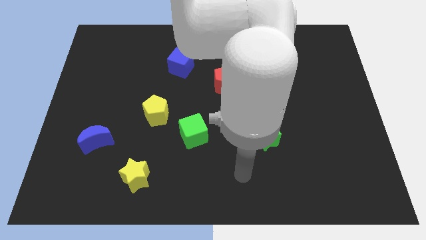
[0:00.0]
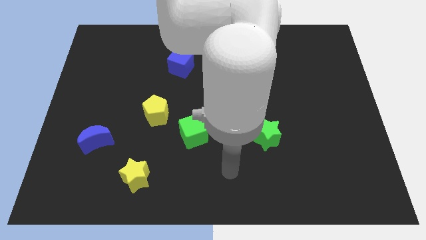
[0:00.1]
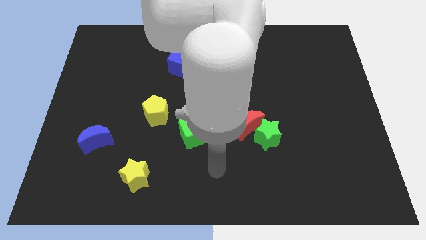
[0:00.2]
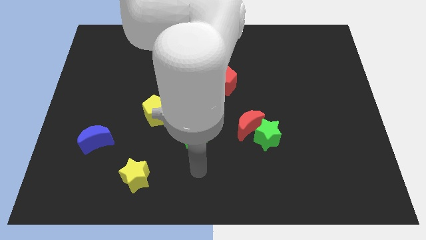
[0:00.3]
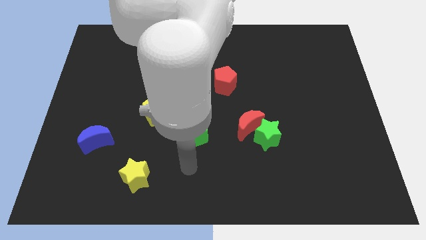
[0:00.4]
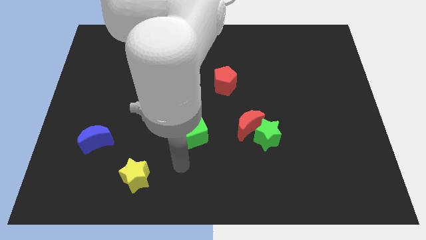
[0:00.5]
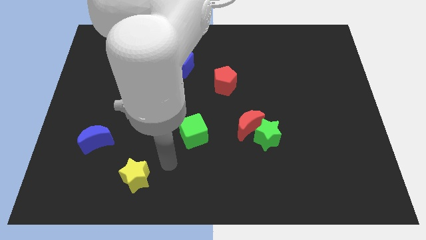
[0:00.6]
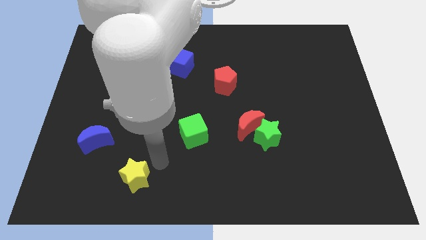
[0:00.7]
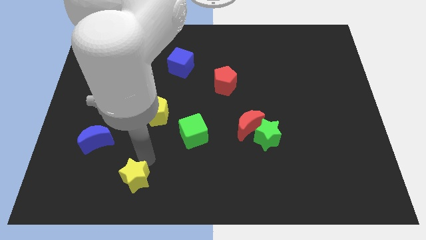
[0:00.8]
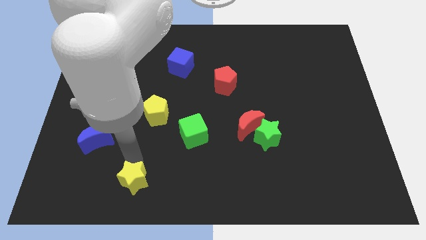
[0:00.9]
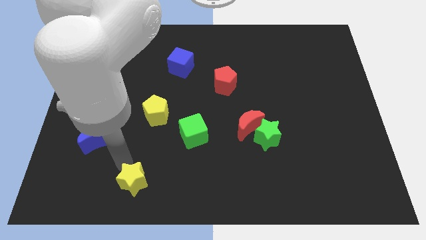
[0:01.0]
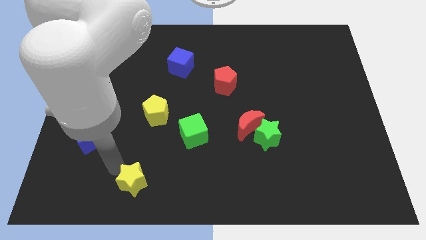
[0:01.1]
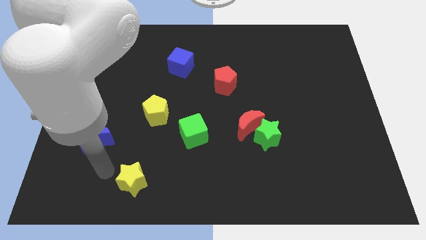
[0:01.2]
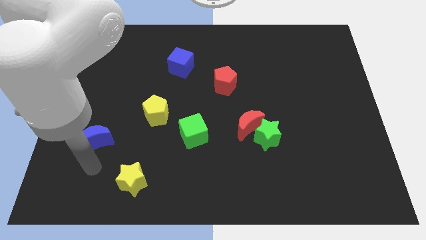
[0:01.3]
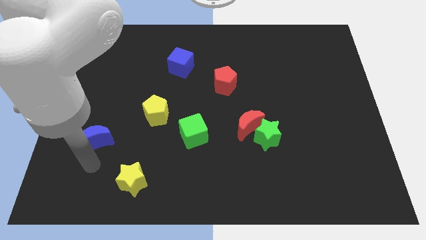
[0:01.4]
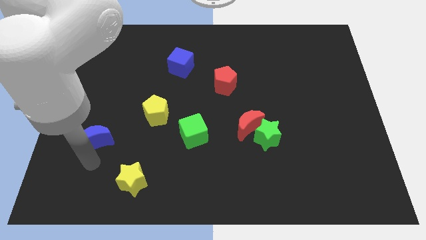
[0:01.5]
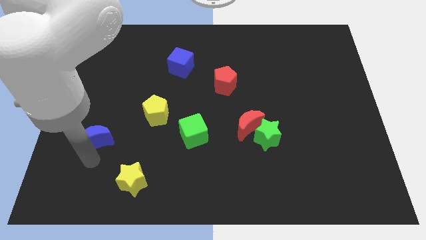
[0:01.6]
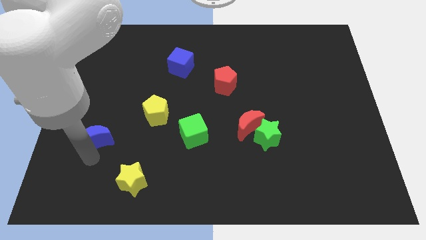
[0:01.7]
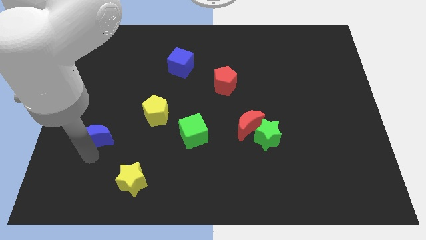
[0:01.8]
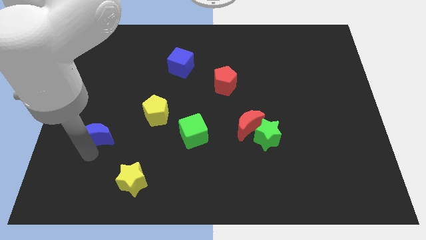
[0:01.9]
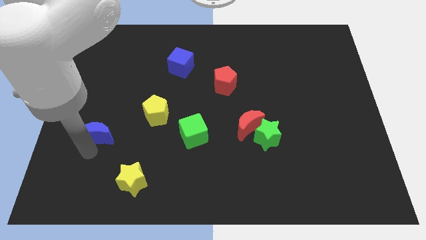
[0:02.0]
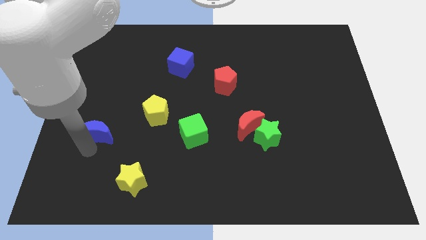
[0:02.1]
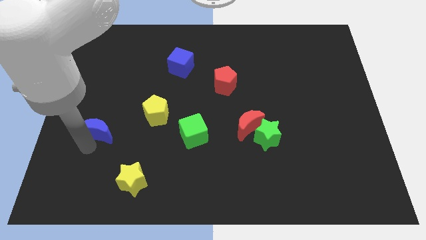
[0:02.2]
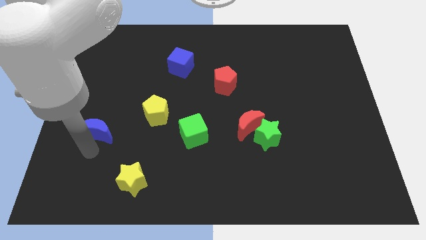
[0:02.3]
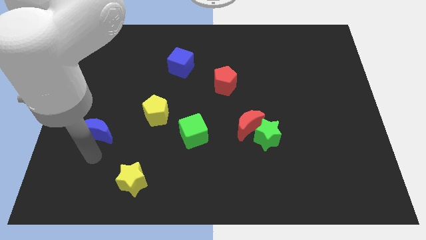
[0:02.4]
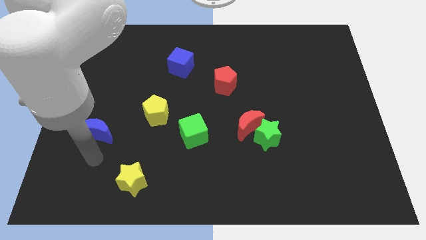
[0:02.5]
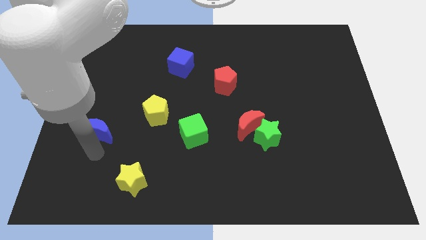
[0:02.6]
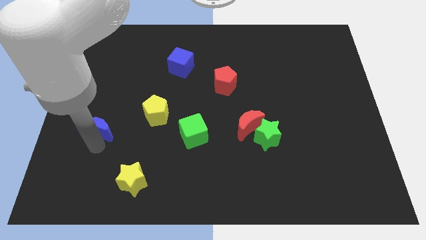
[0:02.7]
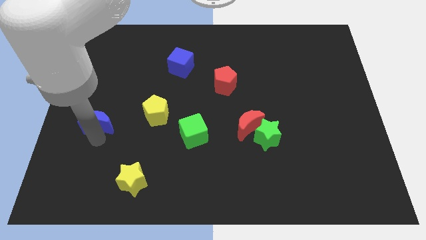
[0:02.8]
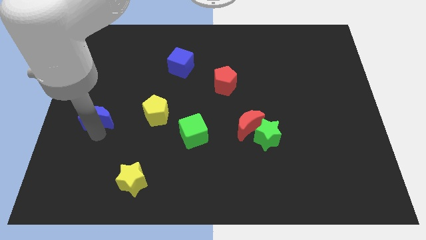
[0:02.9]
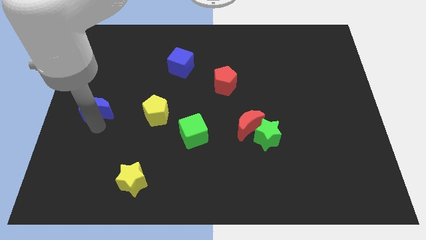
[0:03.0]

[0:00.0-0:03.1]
push the blue moon upwards somewhat

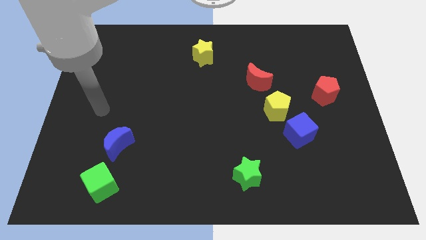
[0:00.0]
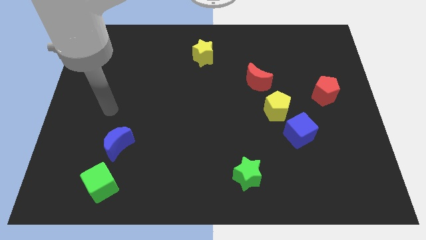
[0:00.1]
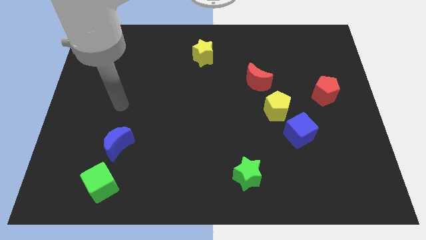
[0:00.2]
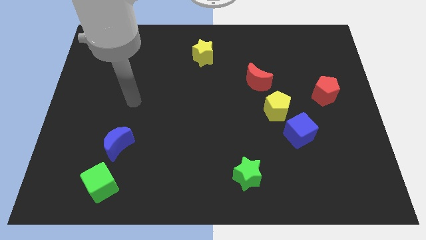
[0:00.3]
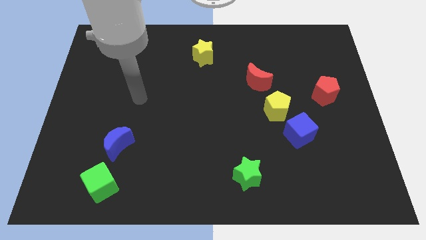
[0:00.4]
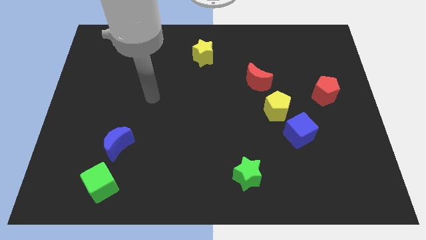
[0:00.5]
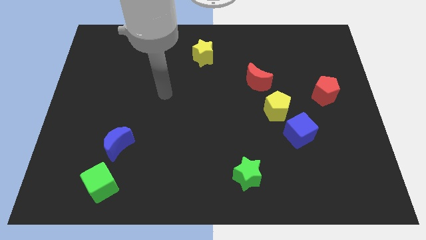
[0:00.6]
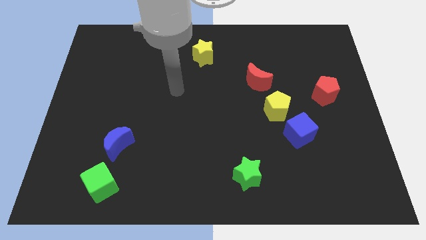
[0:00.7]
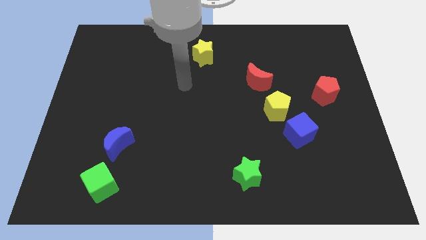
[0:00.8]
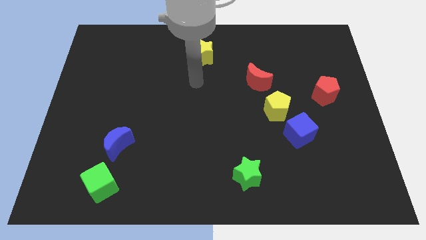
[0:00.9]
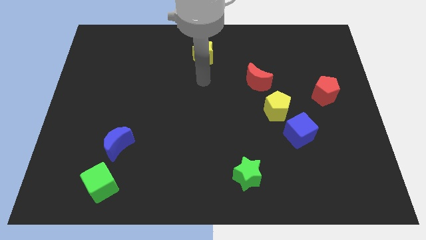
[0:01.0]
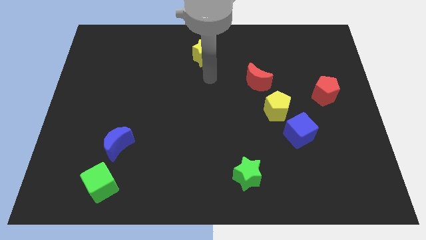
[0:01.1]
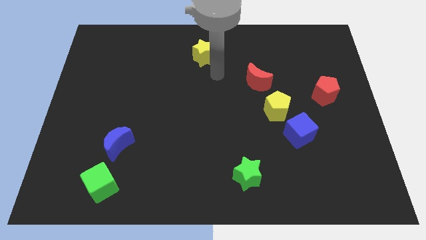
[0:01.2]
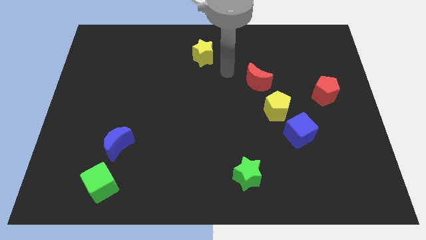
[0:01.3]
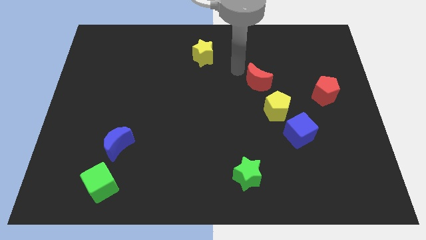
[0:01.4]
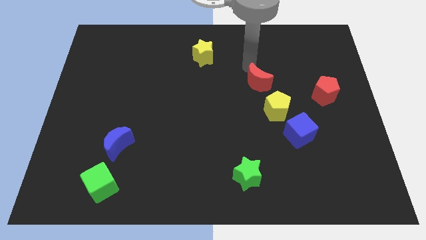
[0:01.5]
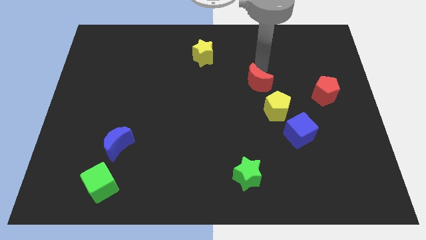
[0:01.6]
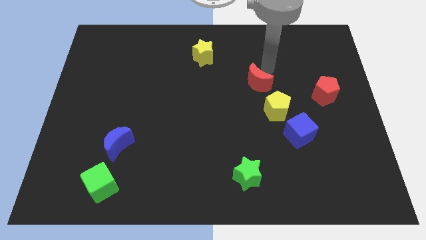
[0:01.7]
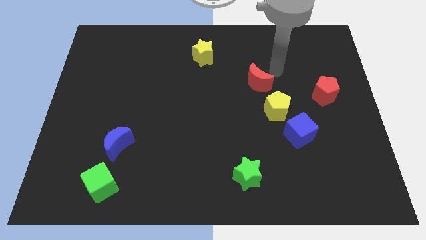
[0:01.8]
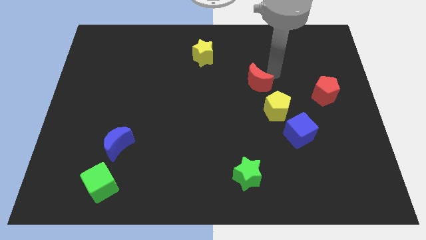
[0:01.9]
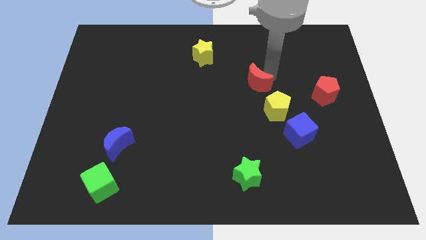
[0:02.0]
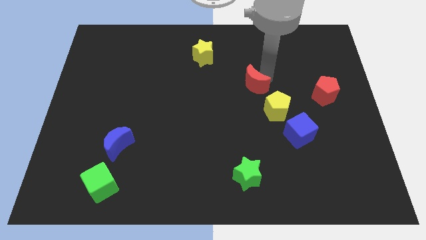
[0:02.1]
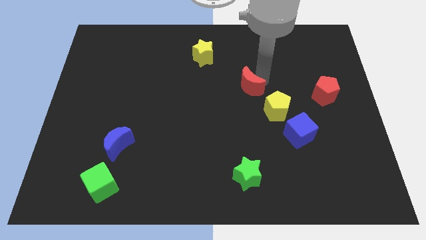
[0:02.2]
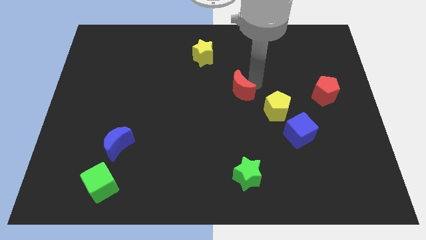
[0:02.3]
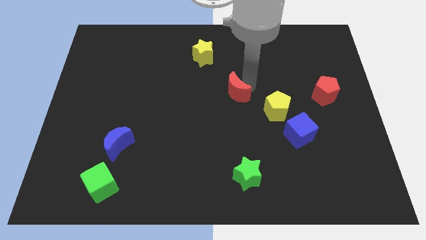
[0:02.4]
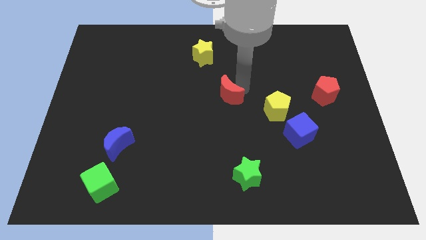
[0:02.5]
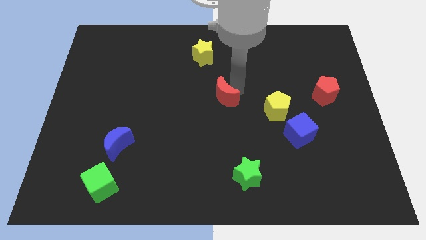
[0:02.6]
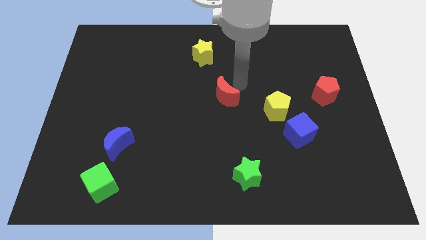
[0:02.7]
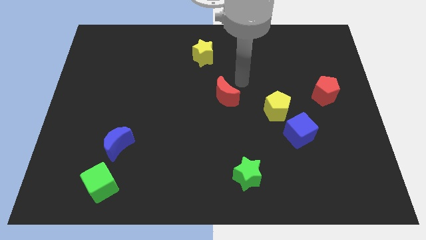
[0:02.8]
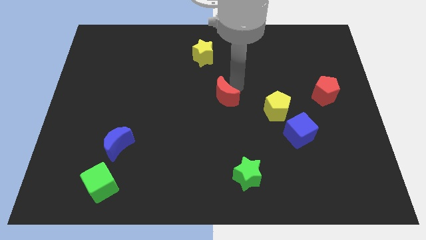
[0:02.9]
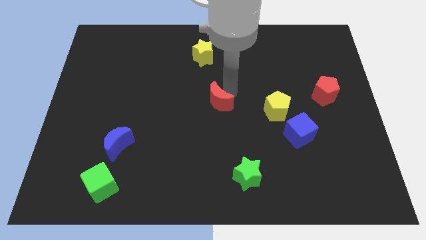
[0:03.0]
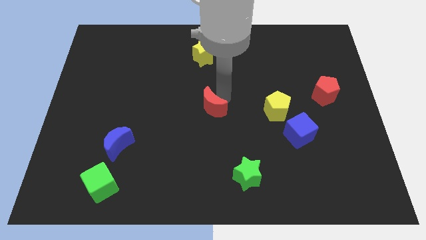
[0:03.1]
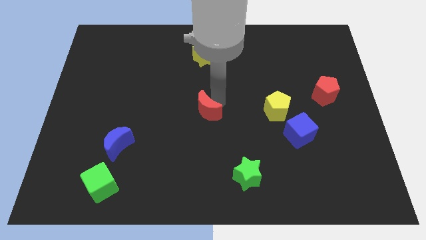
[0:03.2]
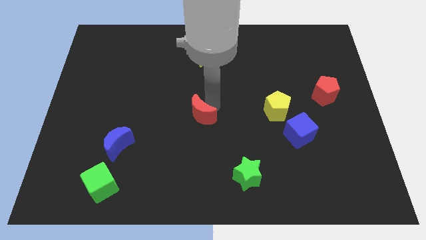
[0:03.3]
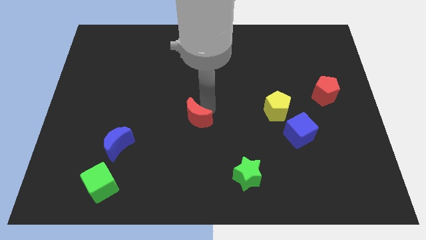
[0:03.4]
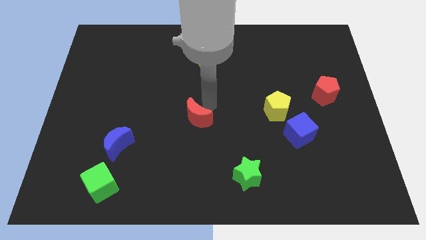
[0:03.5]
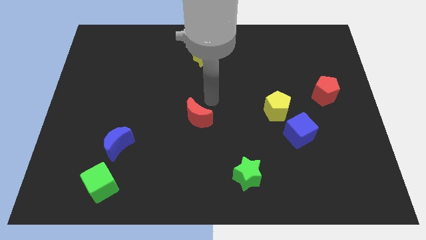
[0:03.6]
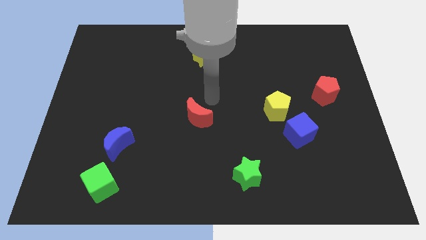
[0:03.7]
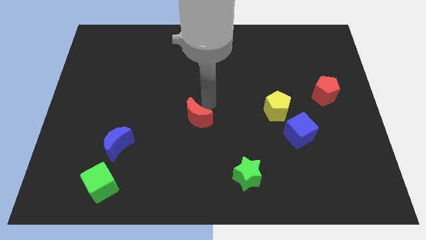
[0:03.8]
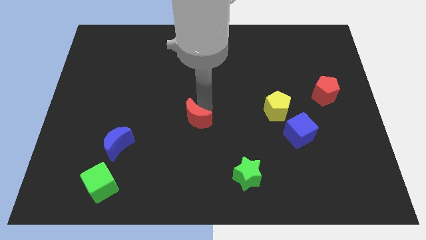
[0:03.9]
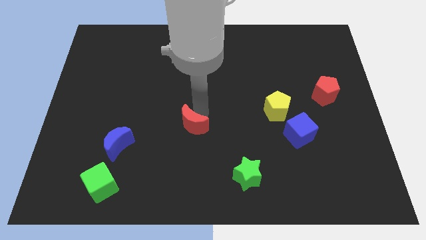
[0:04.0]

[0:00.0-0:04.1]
slide the red moon diagonally downwards and left

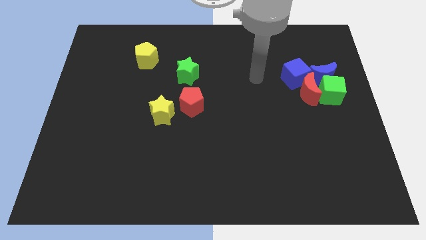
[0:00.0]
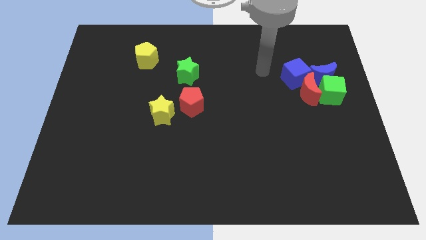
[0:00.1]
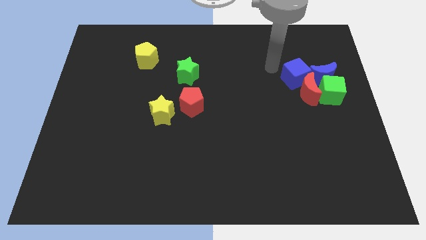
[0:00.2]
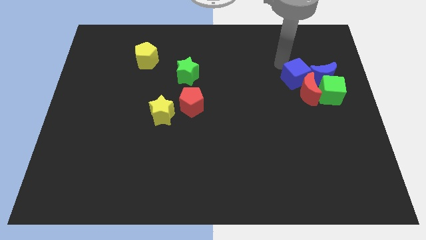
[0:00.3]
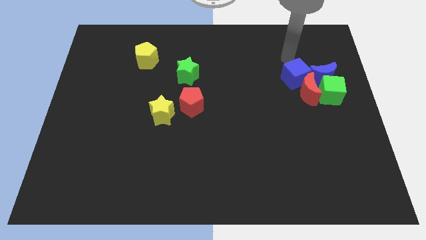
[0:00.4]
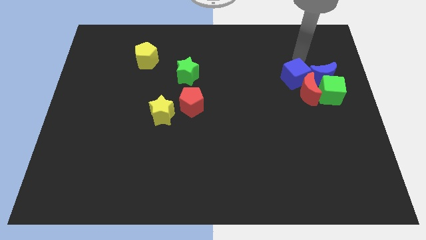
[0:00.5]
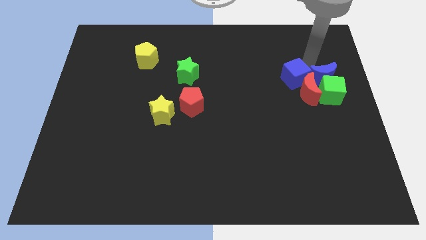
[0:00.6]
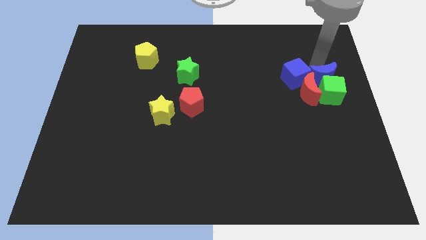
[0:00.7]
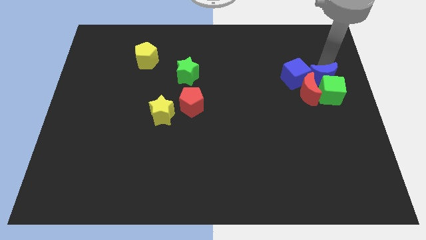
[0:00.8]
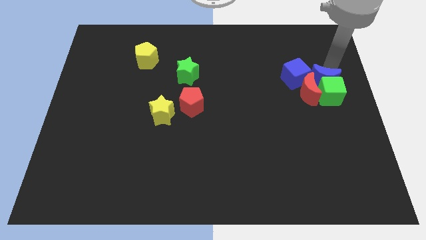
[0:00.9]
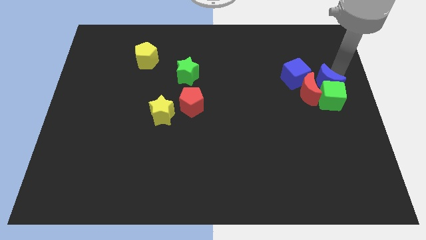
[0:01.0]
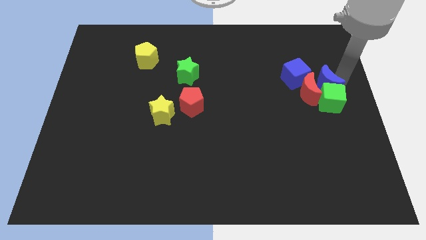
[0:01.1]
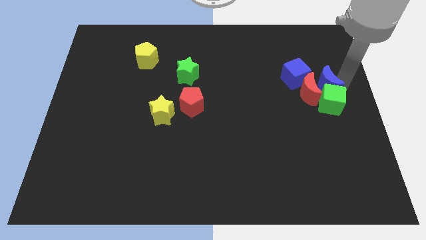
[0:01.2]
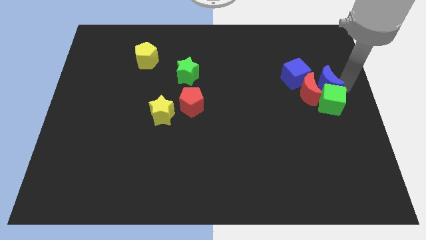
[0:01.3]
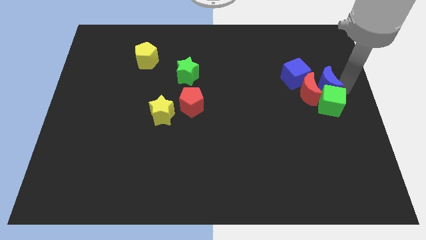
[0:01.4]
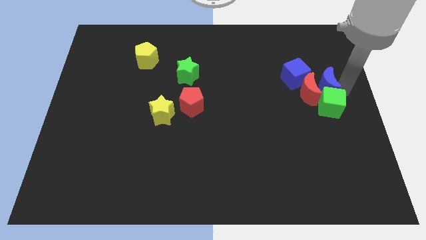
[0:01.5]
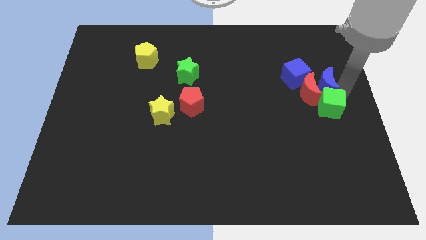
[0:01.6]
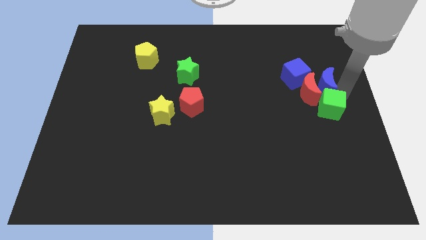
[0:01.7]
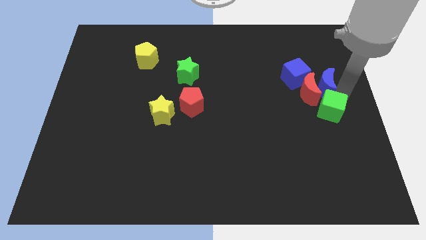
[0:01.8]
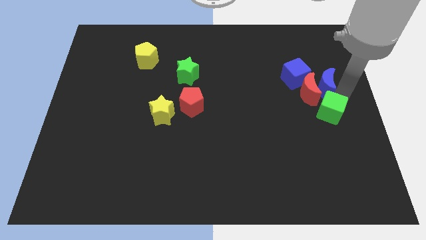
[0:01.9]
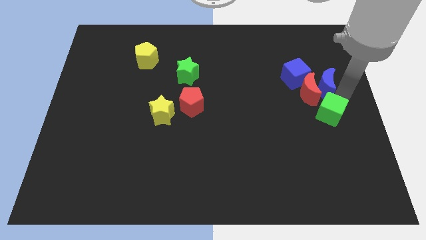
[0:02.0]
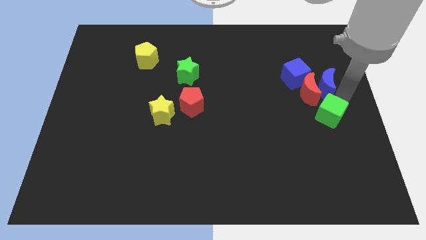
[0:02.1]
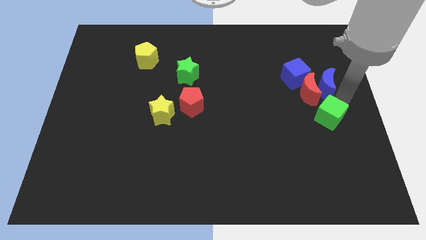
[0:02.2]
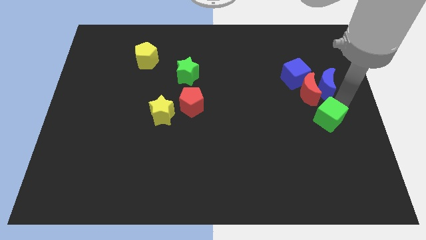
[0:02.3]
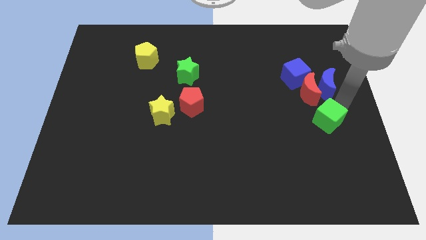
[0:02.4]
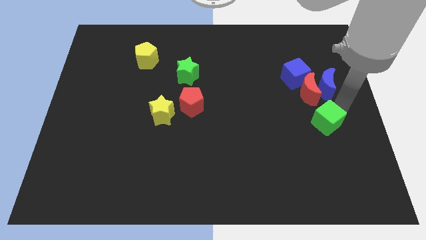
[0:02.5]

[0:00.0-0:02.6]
slightly move the green cube downwards and left
